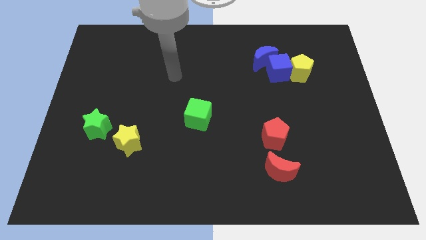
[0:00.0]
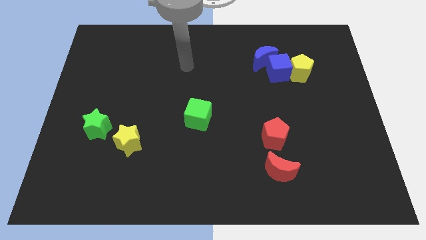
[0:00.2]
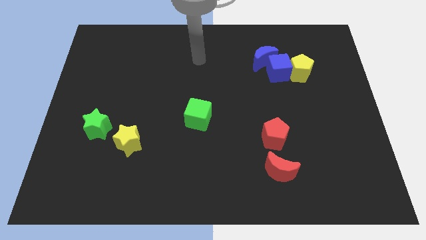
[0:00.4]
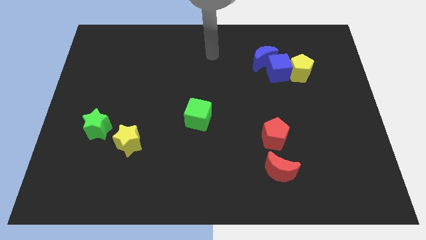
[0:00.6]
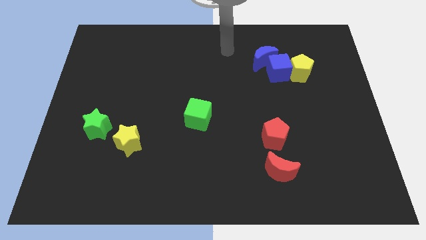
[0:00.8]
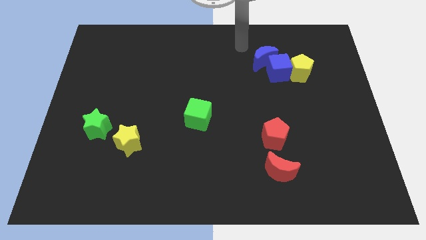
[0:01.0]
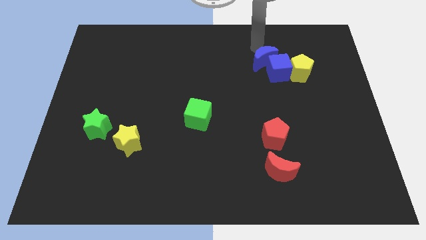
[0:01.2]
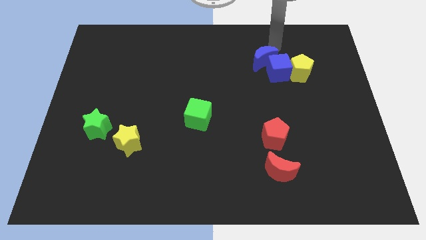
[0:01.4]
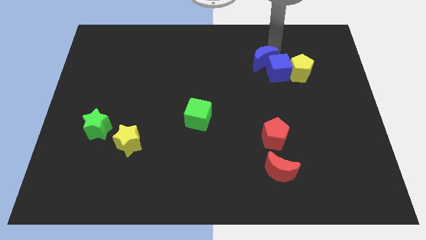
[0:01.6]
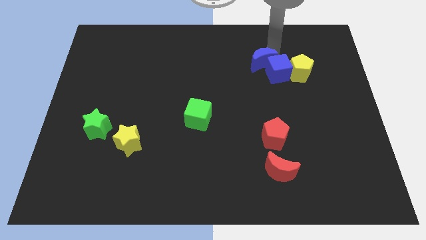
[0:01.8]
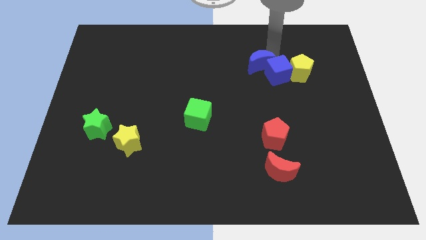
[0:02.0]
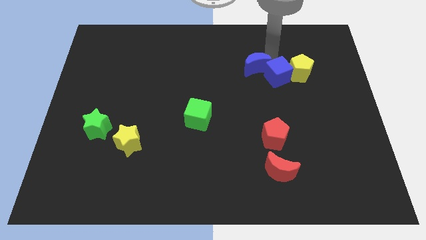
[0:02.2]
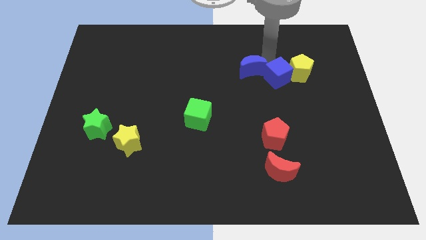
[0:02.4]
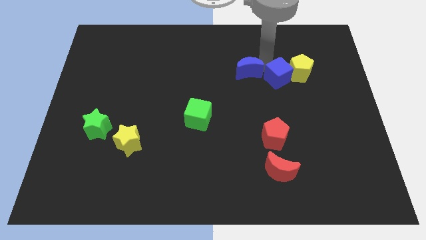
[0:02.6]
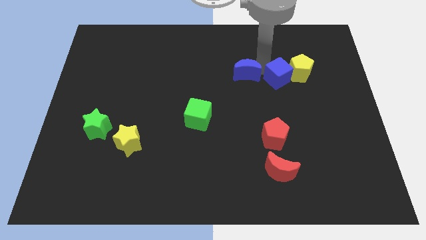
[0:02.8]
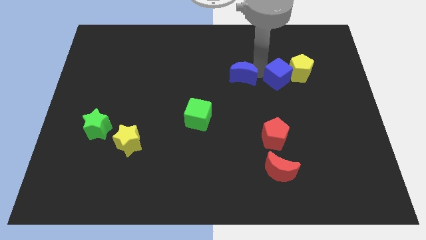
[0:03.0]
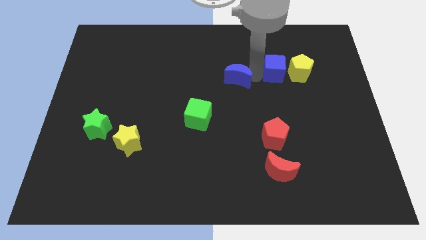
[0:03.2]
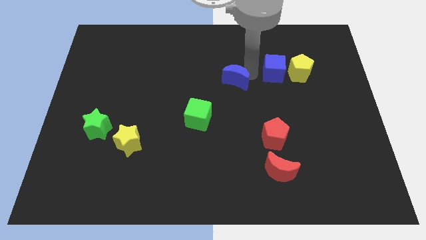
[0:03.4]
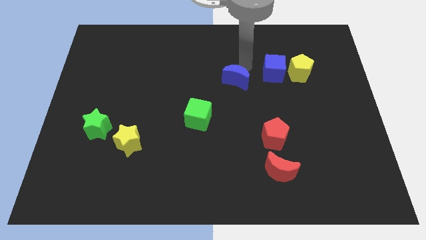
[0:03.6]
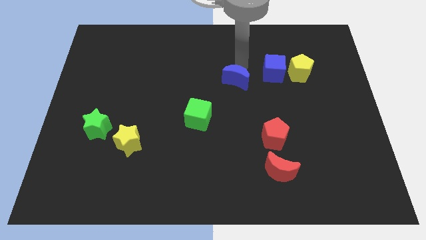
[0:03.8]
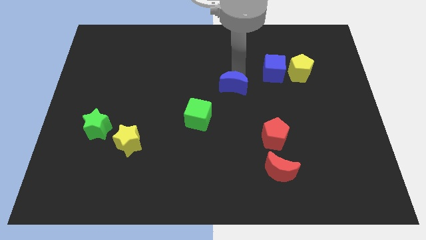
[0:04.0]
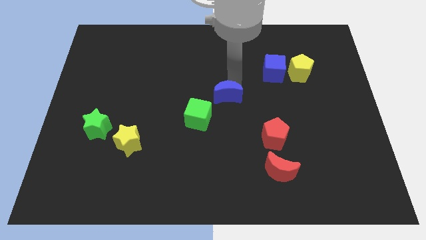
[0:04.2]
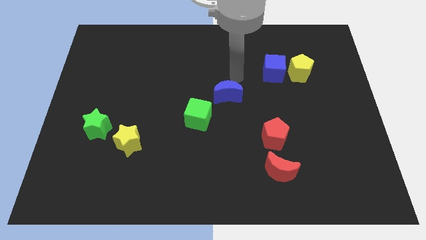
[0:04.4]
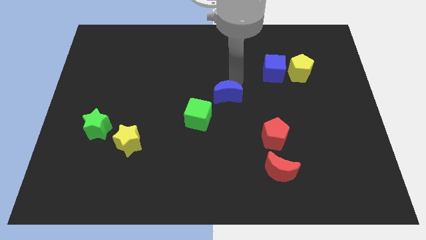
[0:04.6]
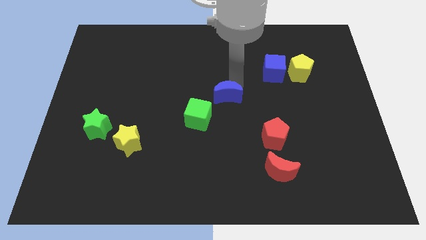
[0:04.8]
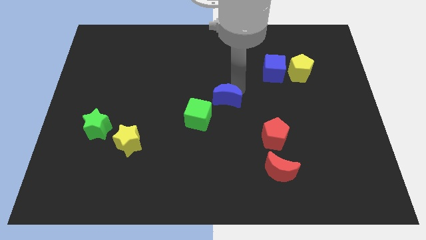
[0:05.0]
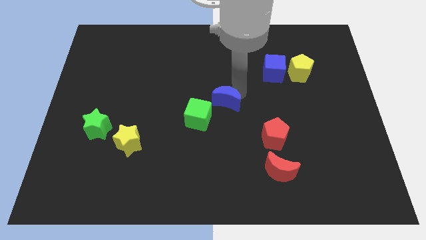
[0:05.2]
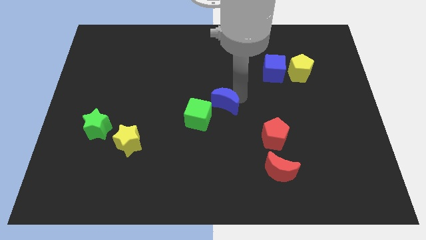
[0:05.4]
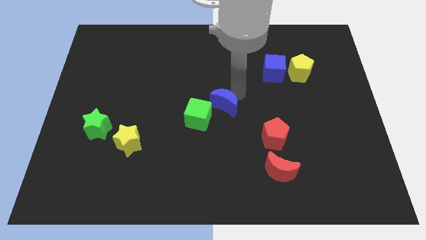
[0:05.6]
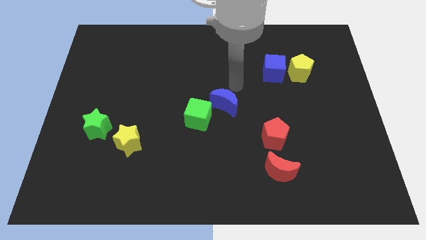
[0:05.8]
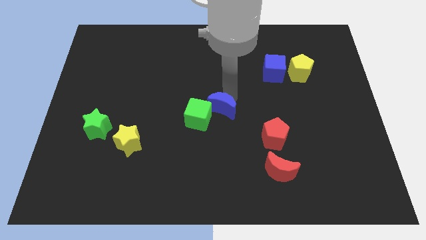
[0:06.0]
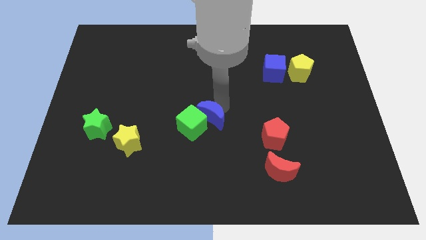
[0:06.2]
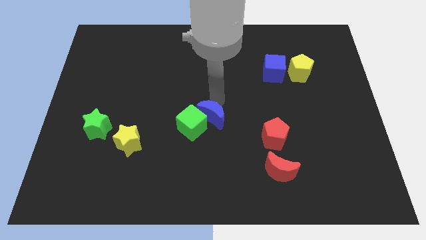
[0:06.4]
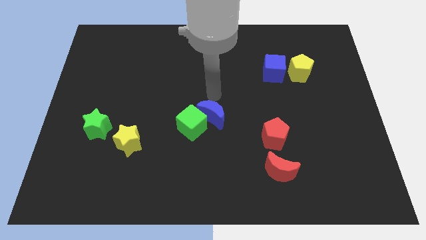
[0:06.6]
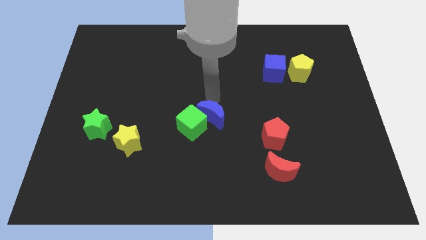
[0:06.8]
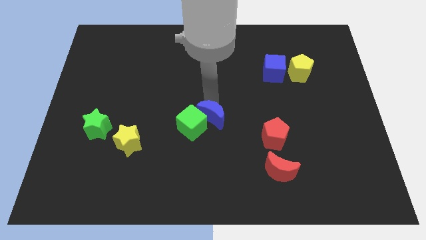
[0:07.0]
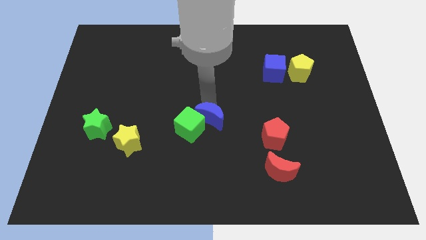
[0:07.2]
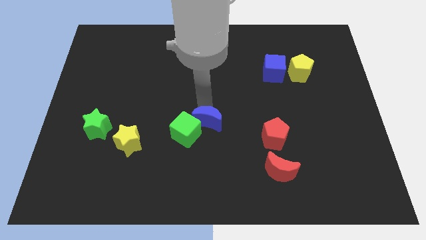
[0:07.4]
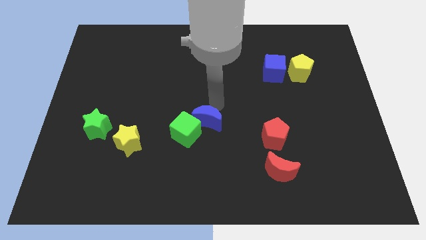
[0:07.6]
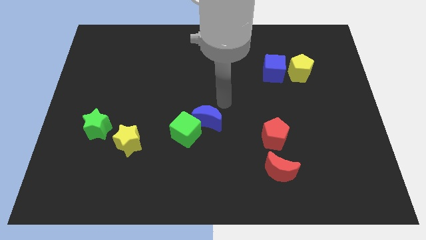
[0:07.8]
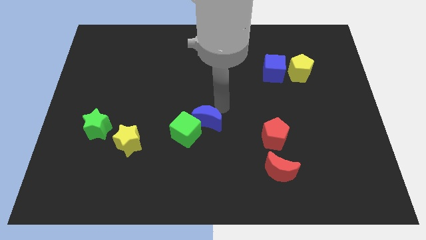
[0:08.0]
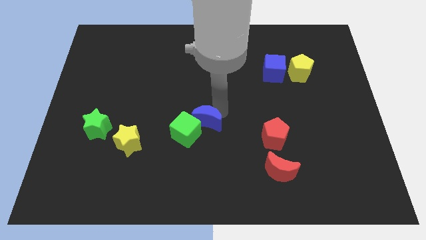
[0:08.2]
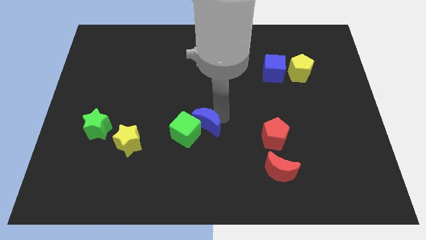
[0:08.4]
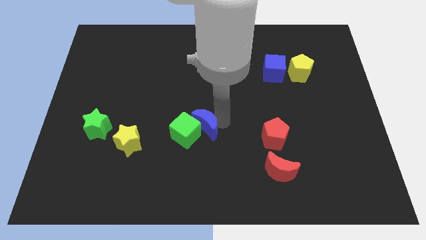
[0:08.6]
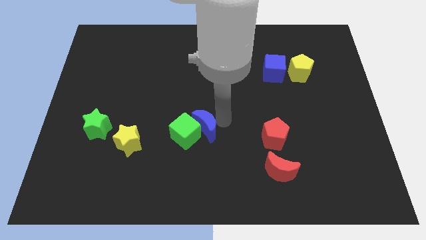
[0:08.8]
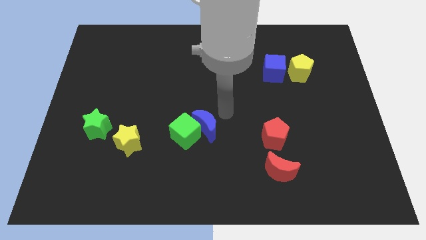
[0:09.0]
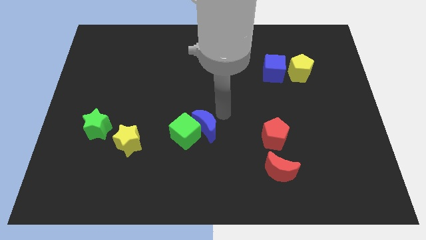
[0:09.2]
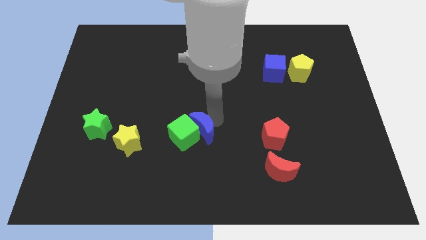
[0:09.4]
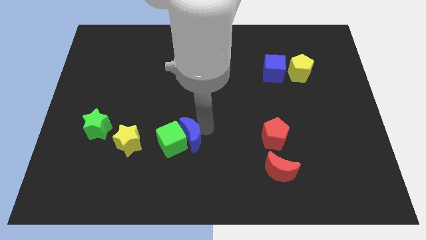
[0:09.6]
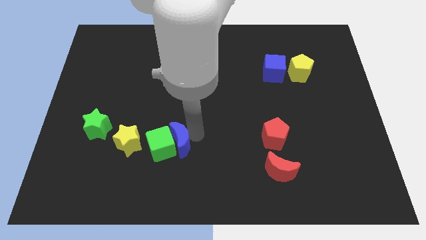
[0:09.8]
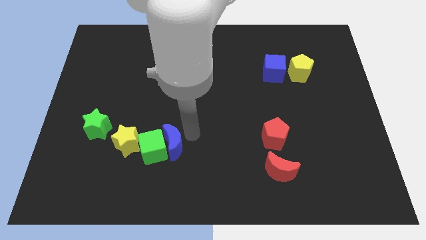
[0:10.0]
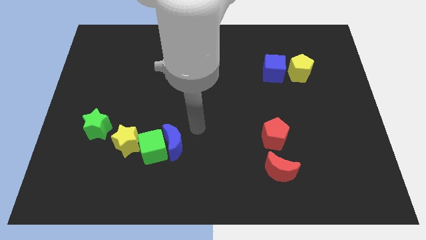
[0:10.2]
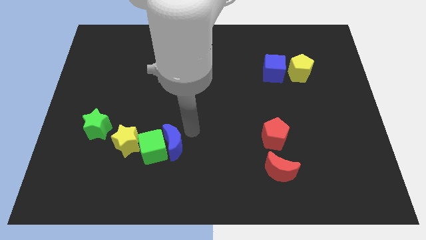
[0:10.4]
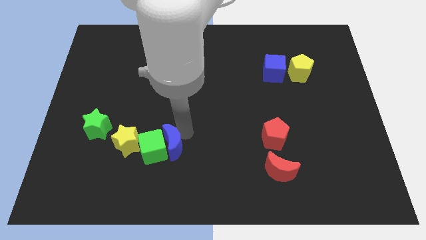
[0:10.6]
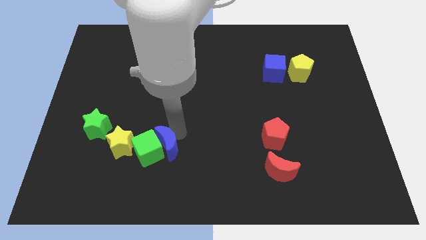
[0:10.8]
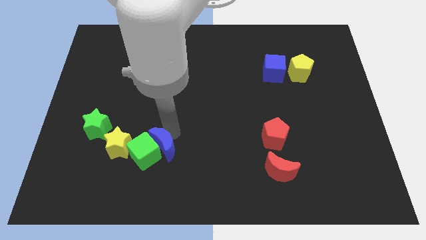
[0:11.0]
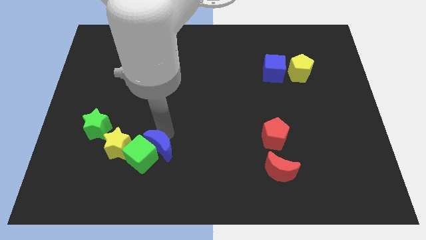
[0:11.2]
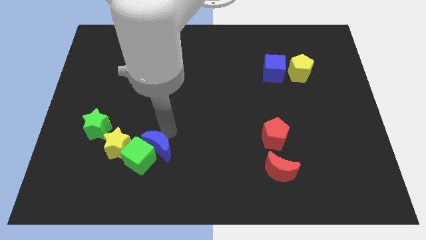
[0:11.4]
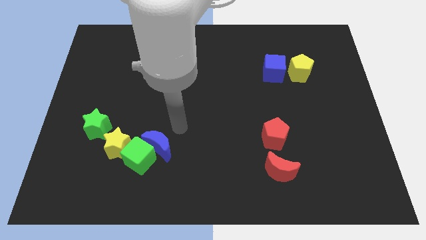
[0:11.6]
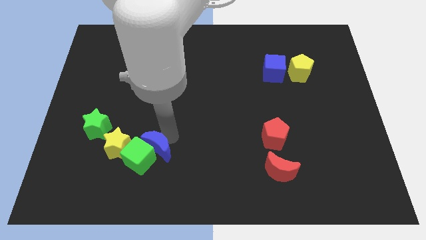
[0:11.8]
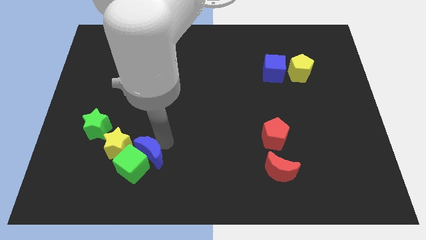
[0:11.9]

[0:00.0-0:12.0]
put the blue moon to the bottom right of the yellow star

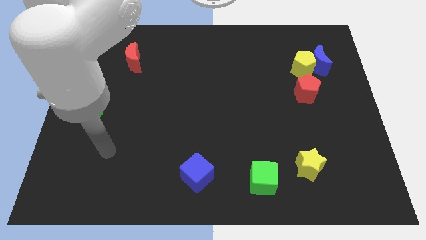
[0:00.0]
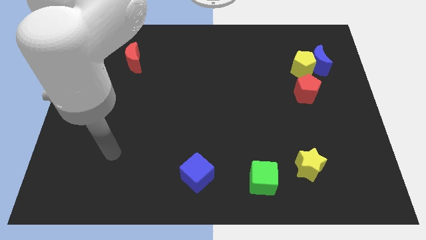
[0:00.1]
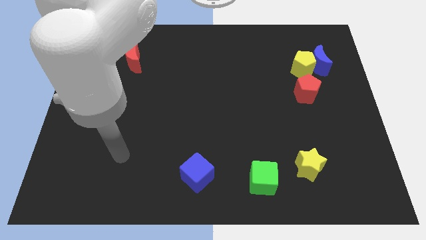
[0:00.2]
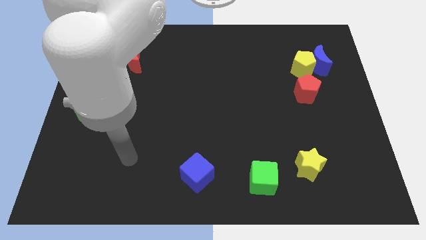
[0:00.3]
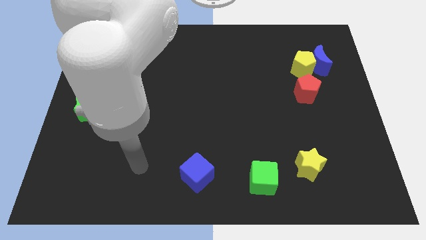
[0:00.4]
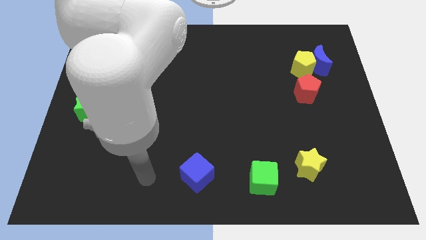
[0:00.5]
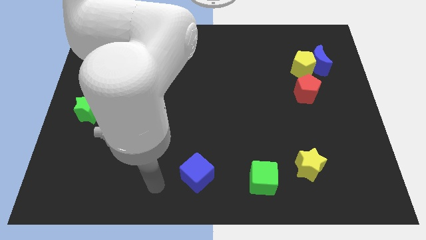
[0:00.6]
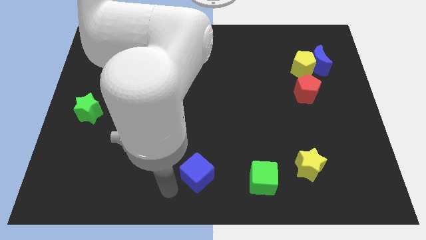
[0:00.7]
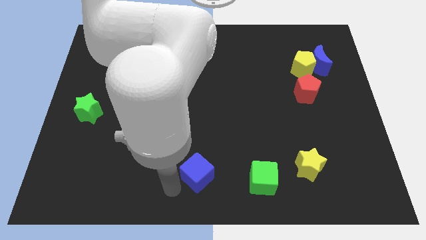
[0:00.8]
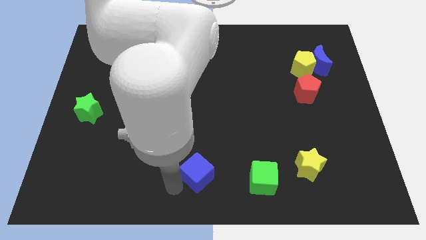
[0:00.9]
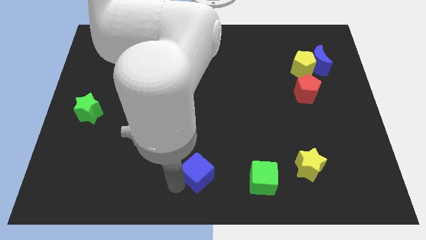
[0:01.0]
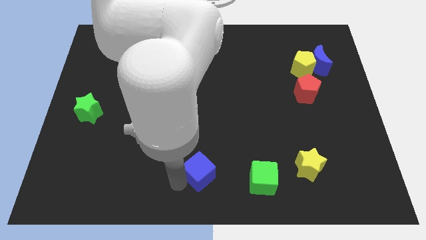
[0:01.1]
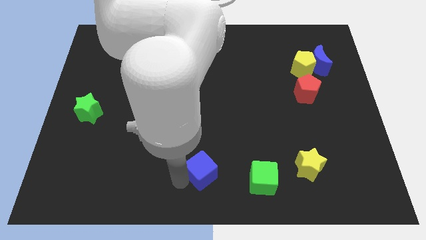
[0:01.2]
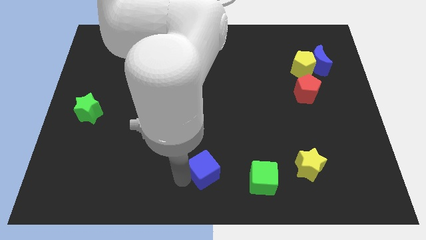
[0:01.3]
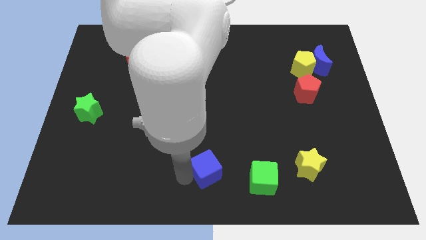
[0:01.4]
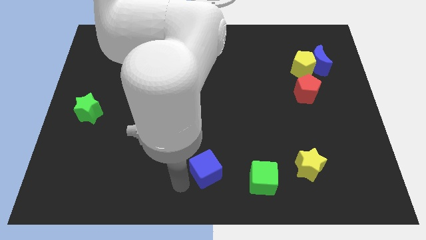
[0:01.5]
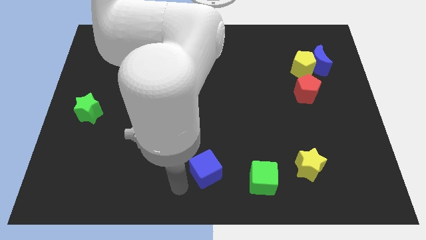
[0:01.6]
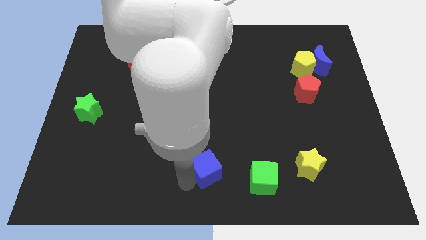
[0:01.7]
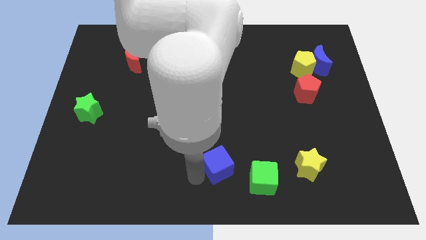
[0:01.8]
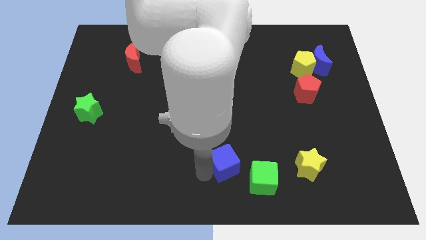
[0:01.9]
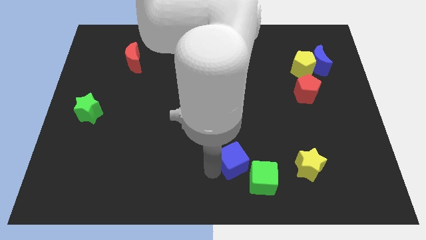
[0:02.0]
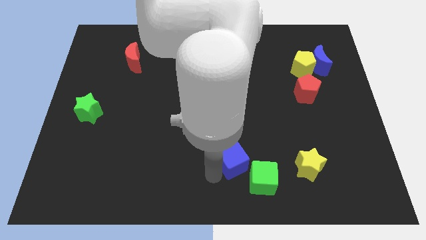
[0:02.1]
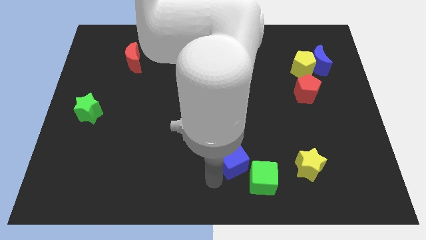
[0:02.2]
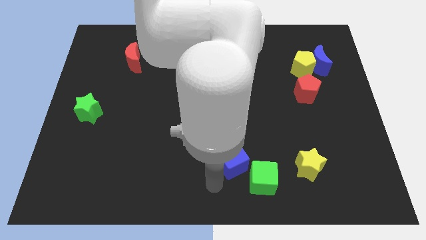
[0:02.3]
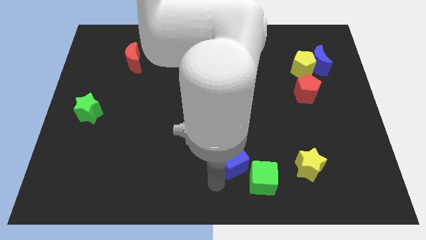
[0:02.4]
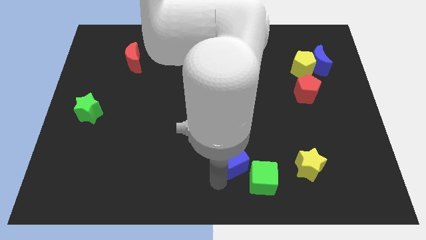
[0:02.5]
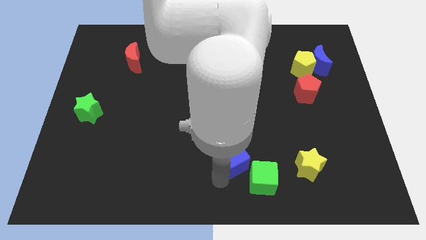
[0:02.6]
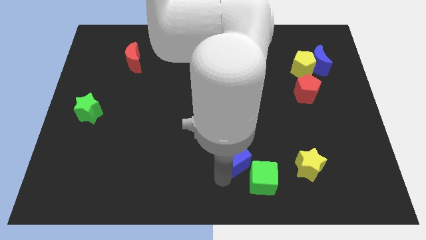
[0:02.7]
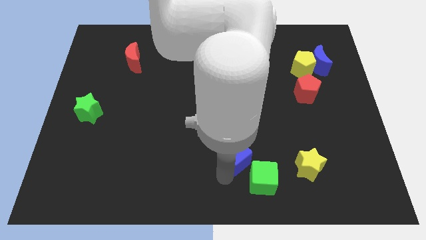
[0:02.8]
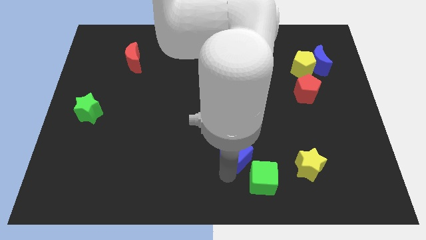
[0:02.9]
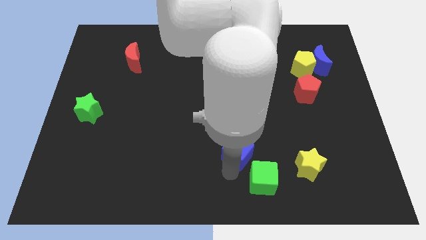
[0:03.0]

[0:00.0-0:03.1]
move the blue cube to the top side of the green cube
